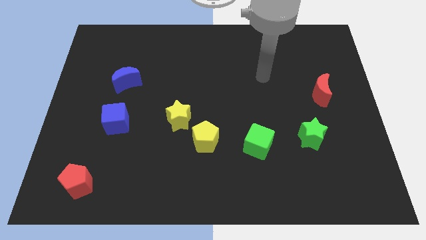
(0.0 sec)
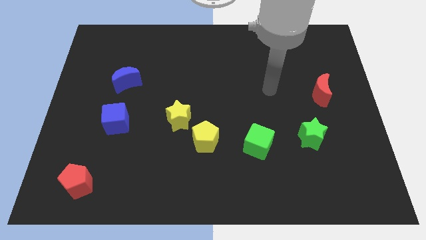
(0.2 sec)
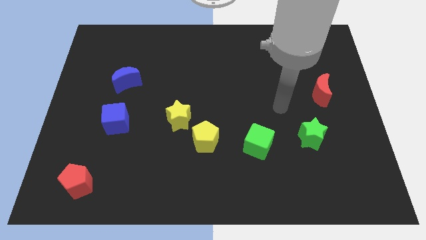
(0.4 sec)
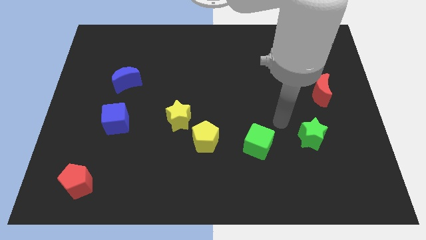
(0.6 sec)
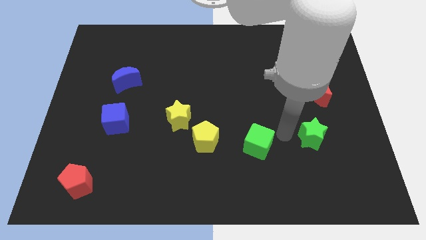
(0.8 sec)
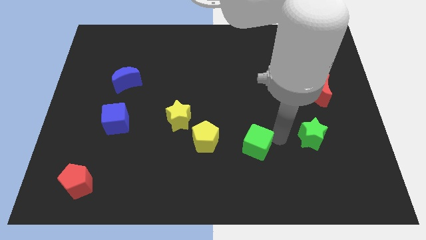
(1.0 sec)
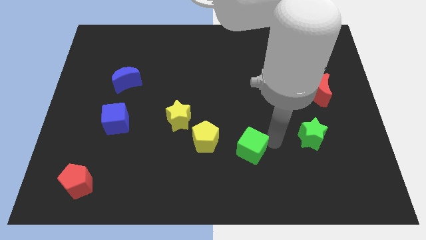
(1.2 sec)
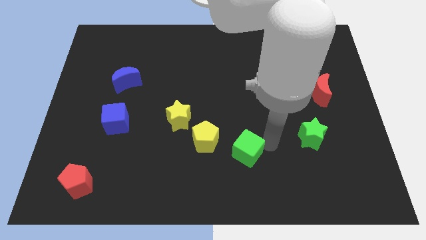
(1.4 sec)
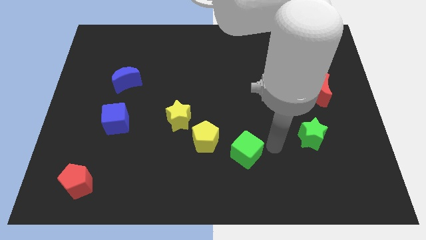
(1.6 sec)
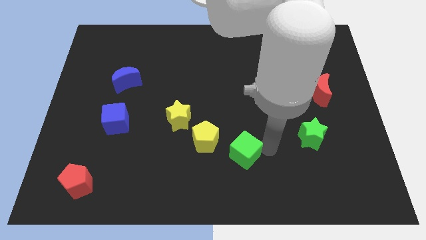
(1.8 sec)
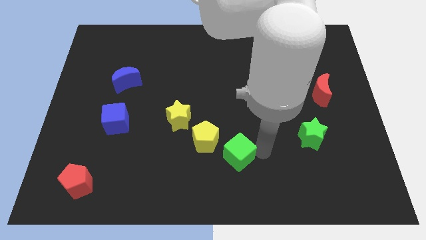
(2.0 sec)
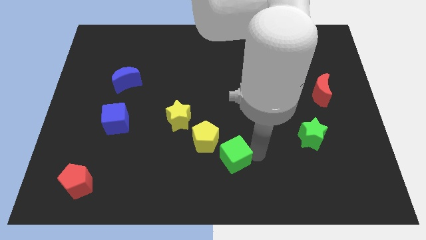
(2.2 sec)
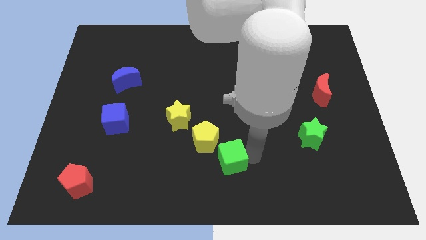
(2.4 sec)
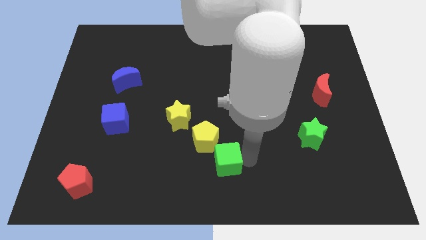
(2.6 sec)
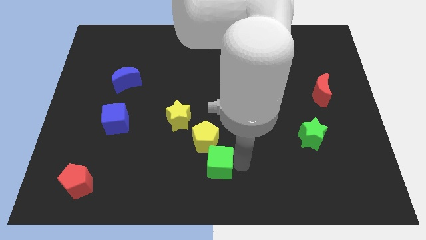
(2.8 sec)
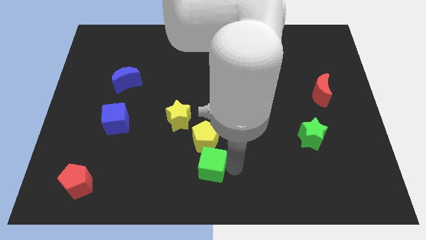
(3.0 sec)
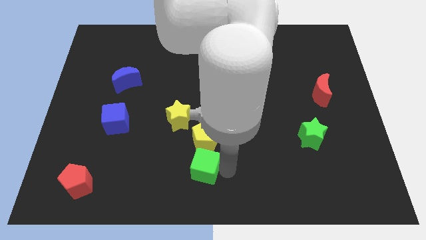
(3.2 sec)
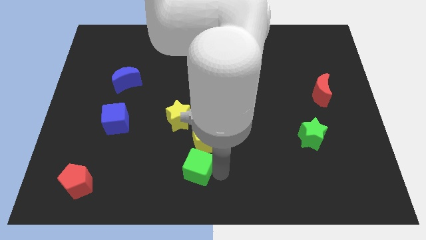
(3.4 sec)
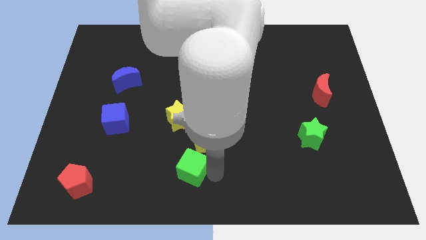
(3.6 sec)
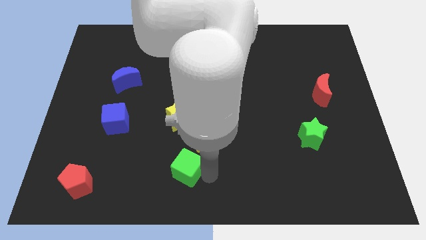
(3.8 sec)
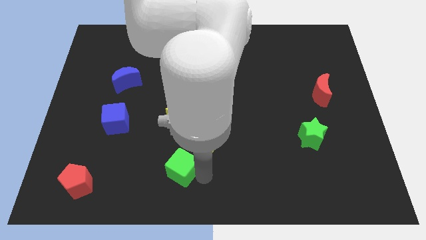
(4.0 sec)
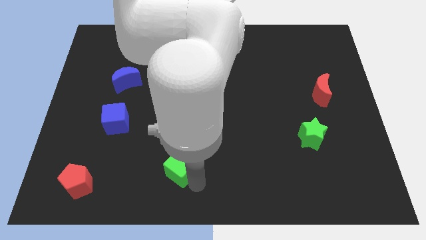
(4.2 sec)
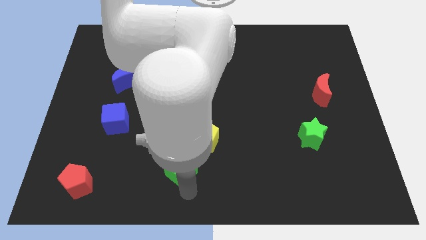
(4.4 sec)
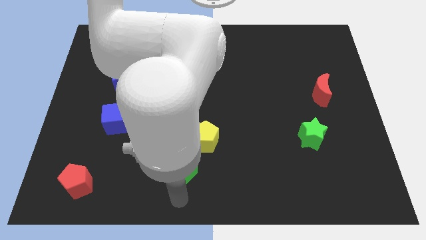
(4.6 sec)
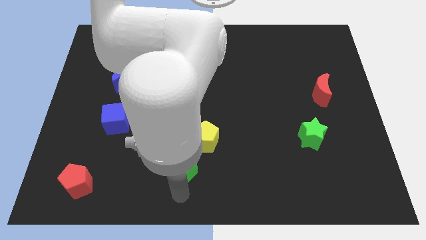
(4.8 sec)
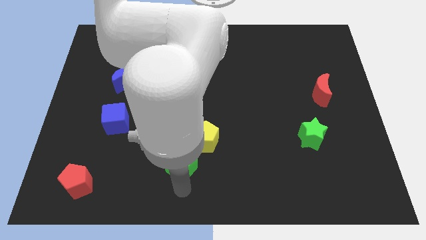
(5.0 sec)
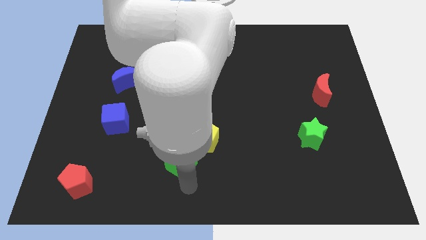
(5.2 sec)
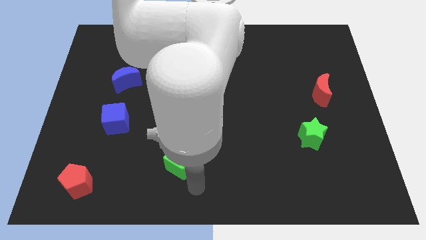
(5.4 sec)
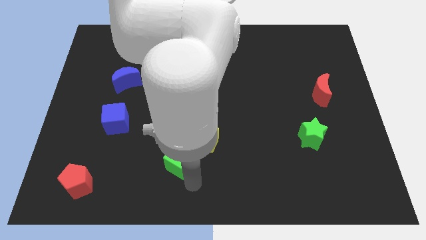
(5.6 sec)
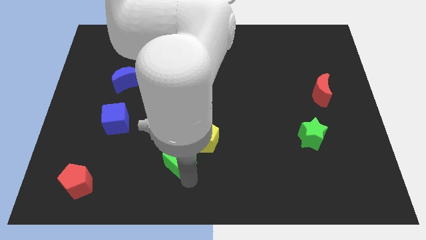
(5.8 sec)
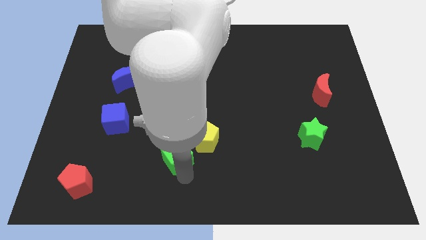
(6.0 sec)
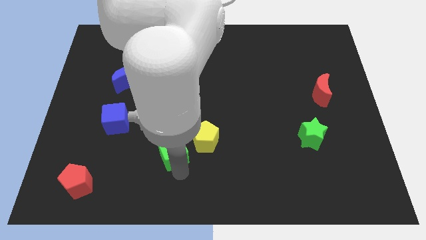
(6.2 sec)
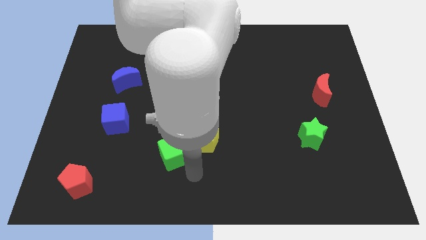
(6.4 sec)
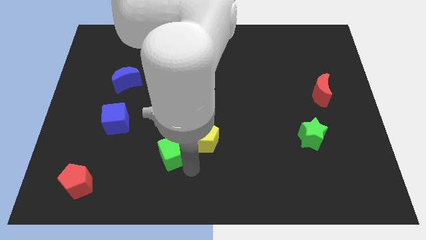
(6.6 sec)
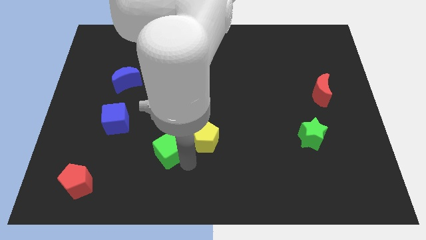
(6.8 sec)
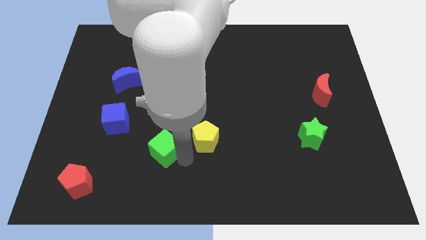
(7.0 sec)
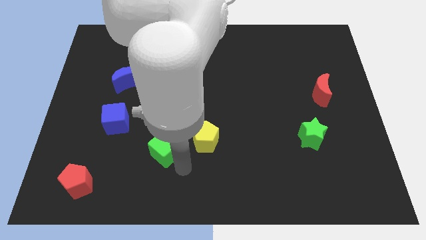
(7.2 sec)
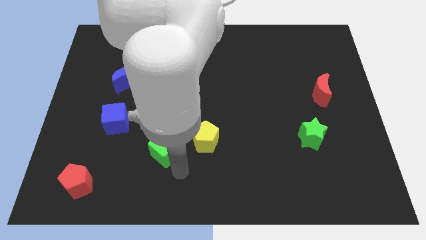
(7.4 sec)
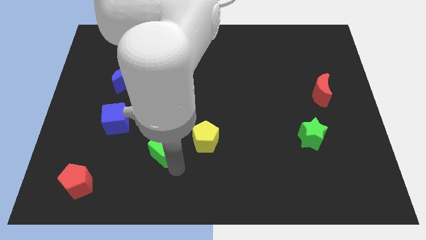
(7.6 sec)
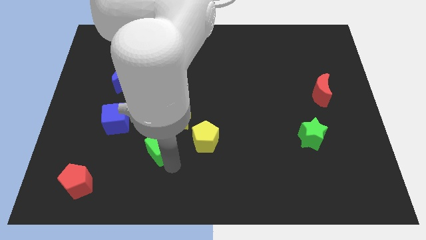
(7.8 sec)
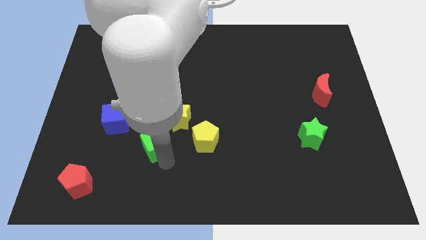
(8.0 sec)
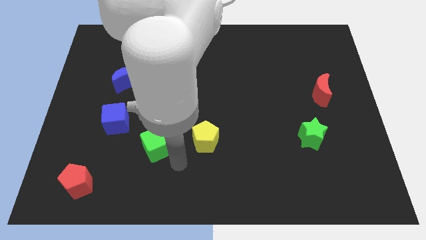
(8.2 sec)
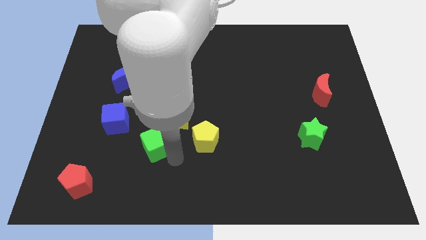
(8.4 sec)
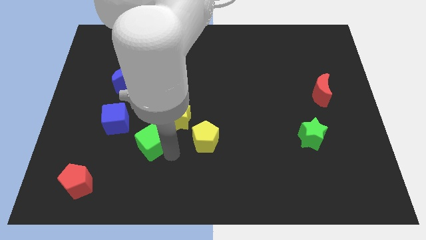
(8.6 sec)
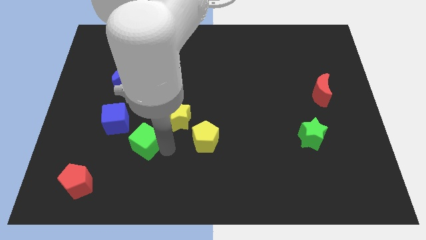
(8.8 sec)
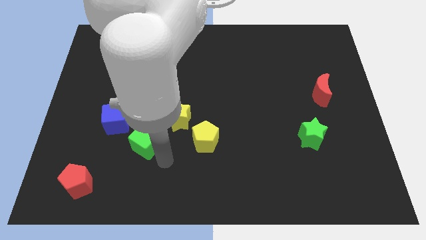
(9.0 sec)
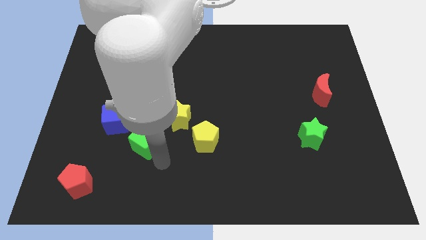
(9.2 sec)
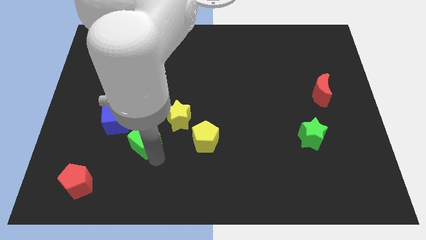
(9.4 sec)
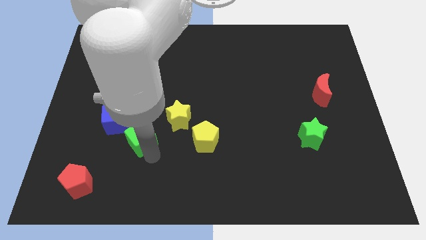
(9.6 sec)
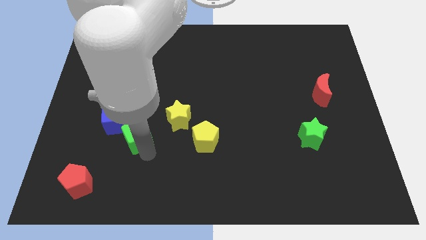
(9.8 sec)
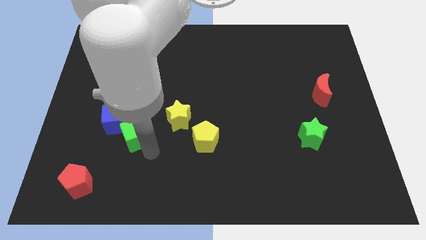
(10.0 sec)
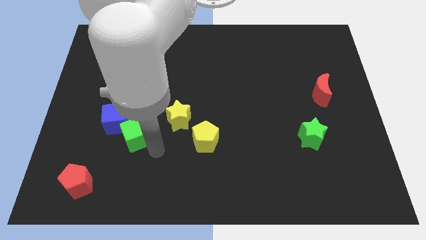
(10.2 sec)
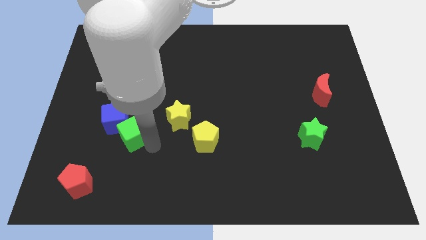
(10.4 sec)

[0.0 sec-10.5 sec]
slide the green cube next to the blue cube

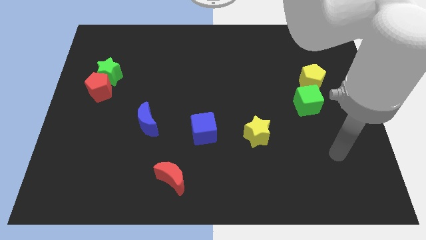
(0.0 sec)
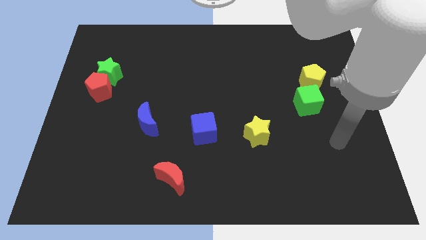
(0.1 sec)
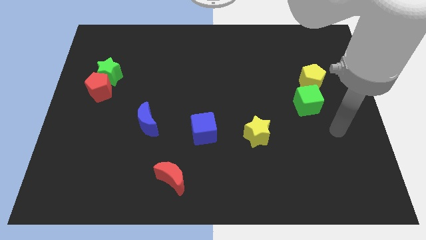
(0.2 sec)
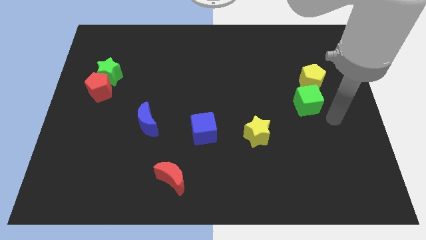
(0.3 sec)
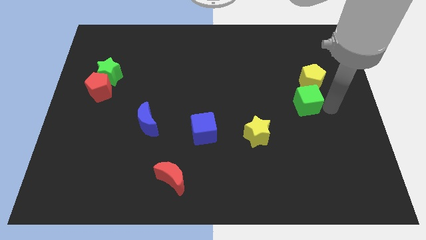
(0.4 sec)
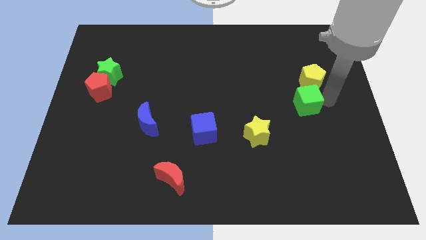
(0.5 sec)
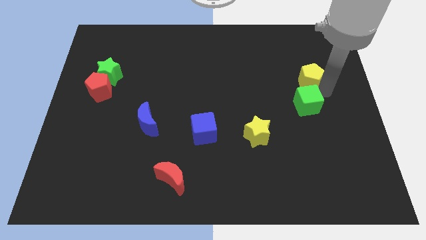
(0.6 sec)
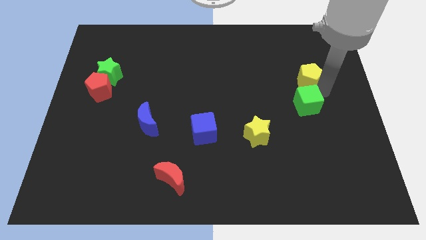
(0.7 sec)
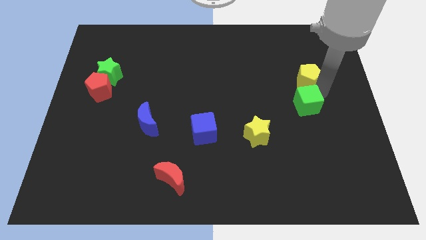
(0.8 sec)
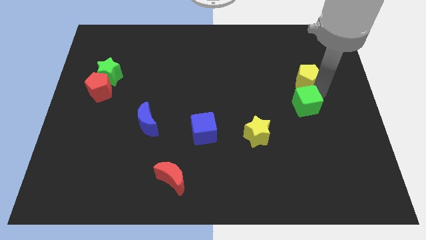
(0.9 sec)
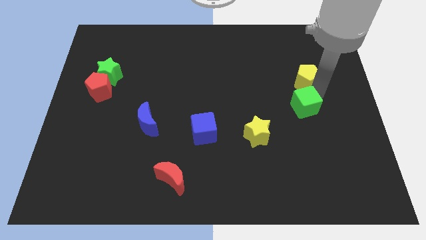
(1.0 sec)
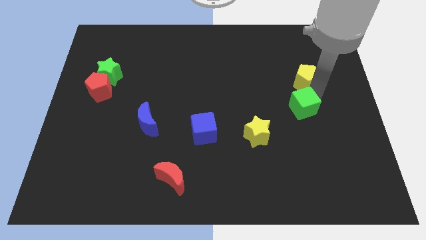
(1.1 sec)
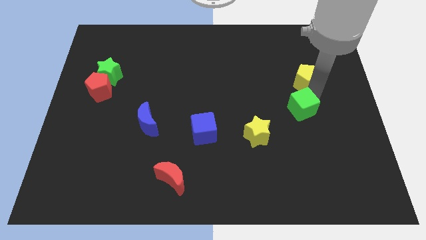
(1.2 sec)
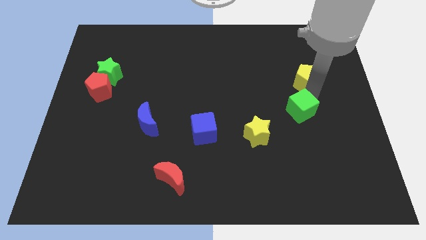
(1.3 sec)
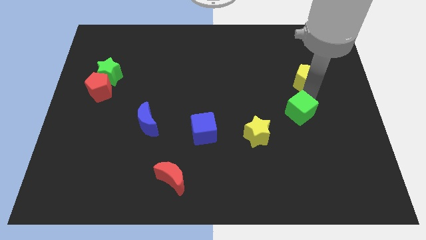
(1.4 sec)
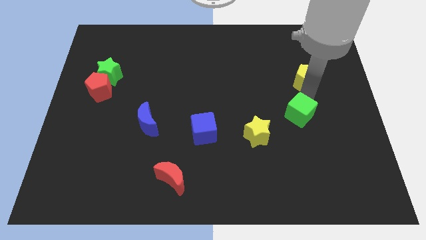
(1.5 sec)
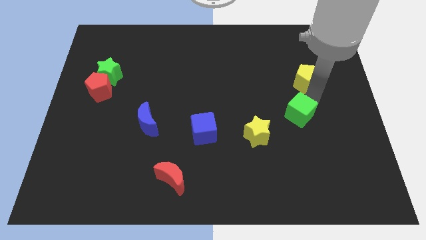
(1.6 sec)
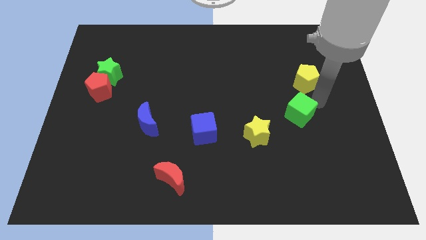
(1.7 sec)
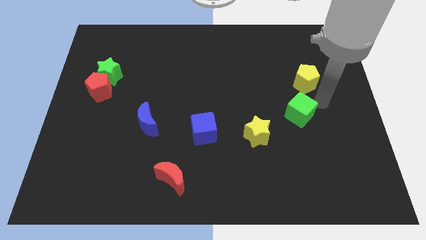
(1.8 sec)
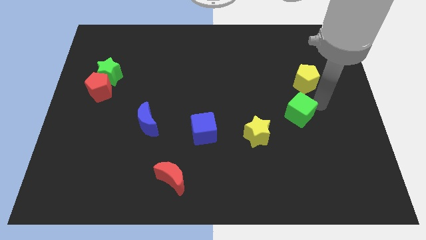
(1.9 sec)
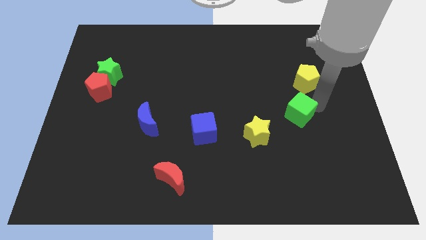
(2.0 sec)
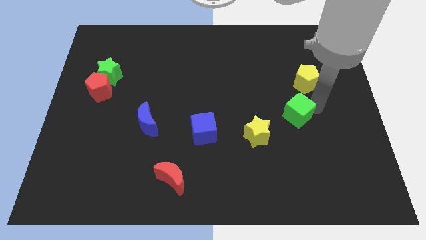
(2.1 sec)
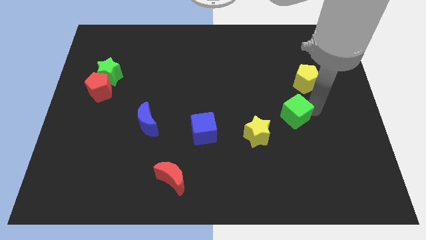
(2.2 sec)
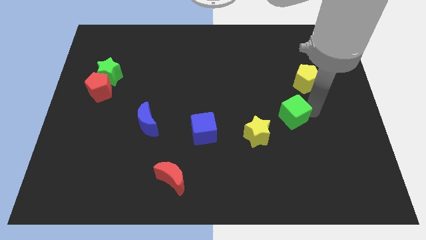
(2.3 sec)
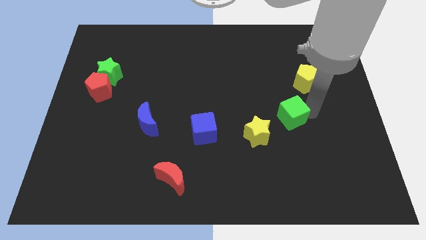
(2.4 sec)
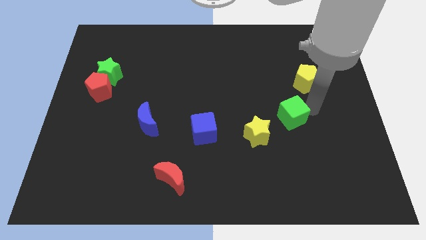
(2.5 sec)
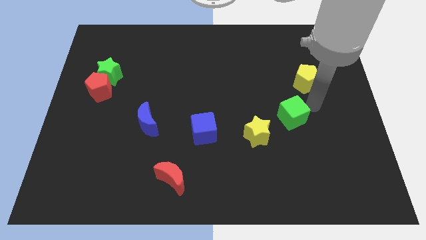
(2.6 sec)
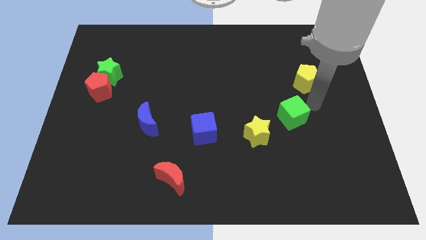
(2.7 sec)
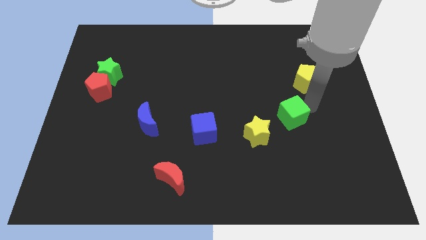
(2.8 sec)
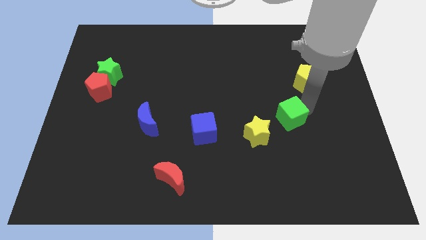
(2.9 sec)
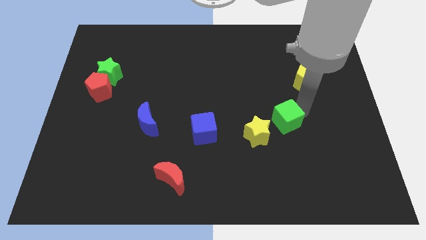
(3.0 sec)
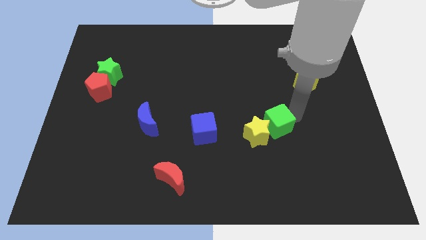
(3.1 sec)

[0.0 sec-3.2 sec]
slide the green cube next to the yellow star

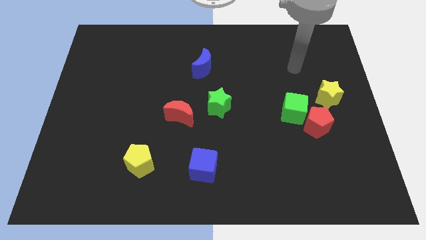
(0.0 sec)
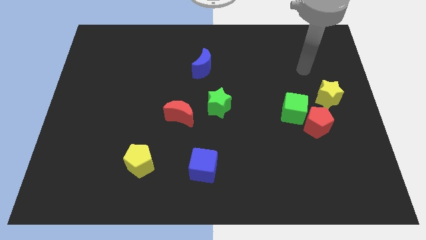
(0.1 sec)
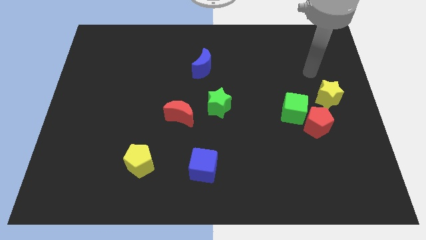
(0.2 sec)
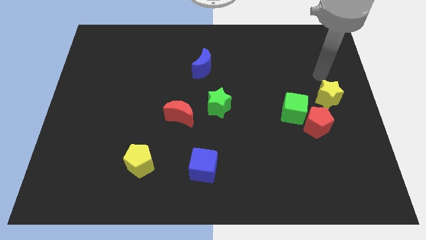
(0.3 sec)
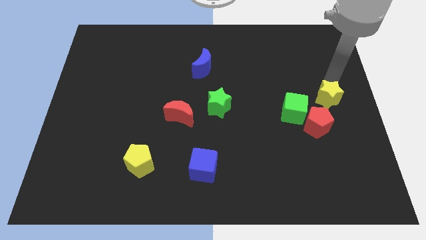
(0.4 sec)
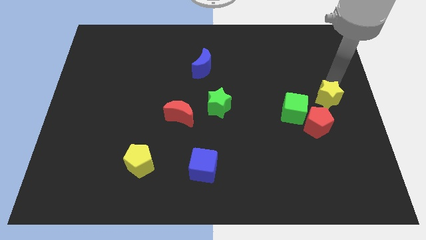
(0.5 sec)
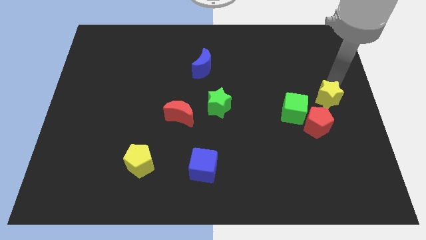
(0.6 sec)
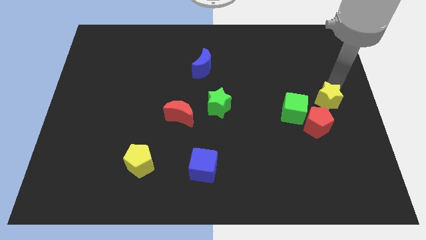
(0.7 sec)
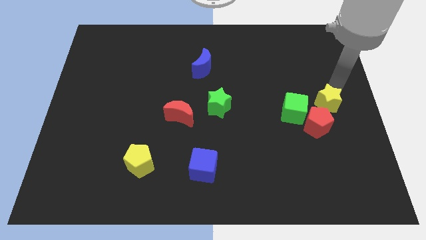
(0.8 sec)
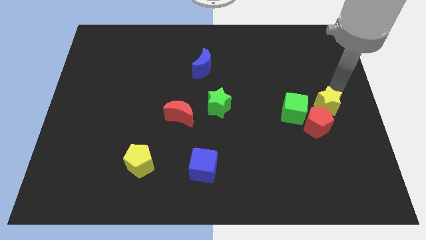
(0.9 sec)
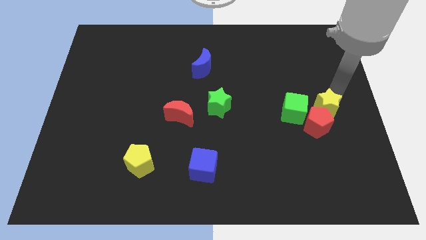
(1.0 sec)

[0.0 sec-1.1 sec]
put the yellow star to the red pentagon
